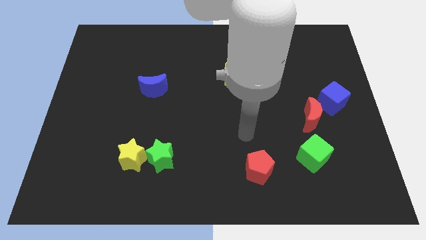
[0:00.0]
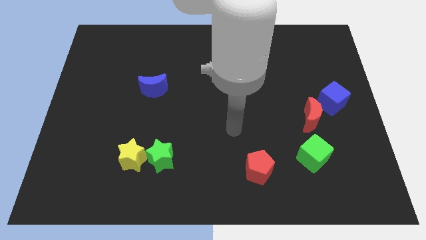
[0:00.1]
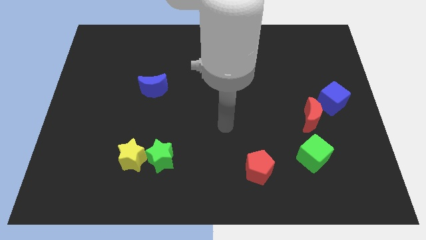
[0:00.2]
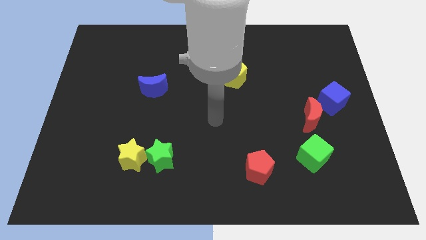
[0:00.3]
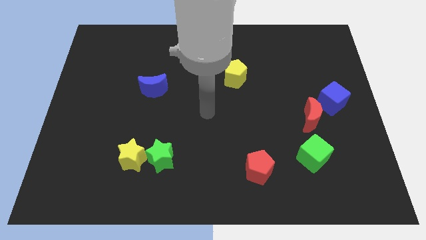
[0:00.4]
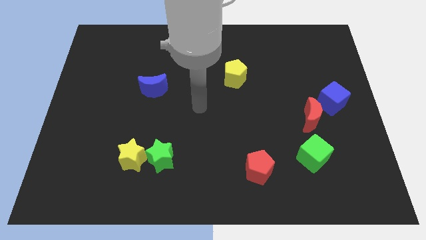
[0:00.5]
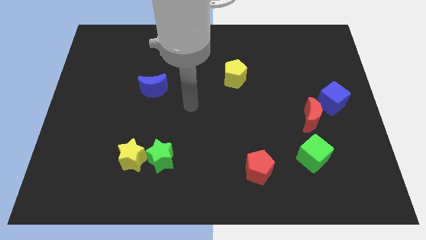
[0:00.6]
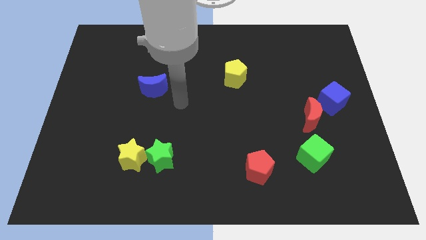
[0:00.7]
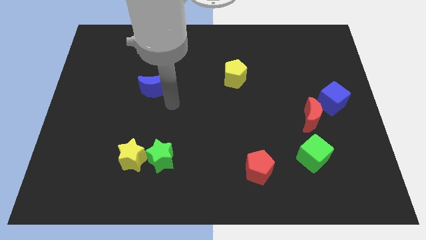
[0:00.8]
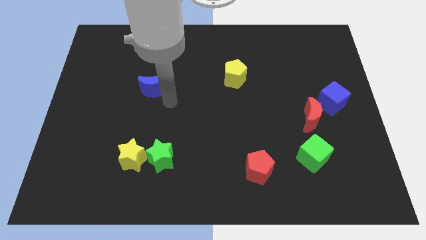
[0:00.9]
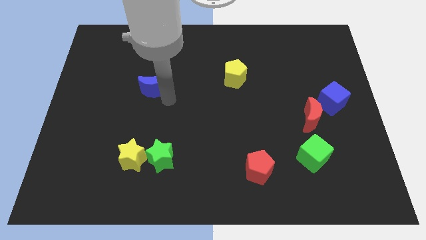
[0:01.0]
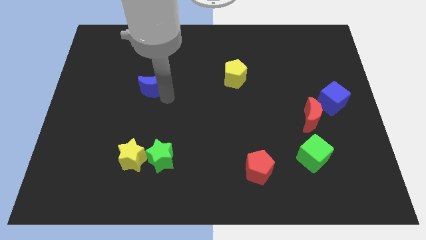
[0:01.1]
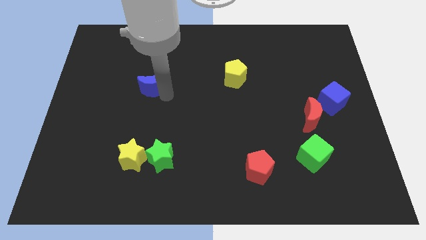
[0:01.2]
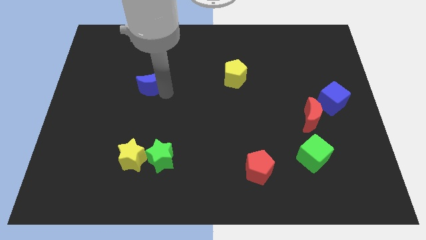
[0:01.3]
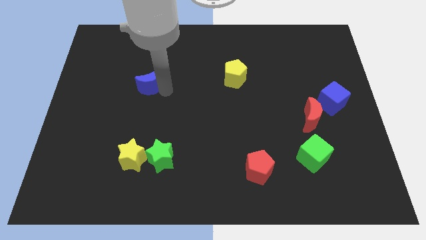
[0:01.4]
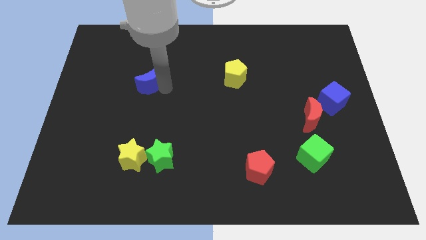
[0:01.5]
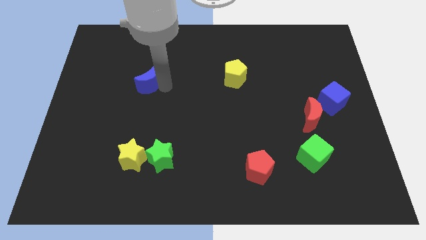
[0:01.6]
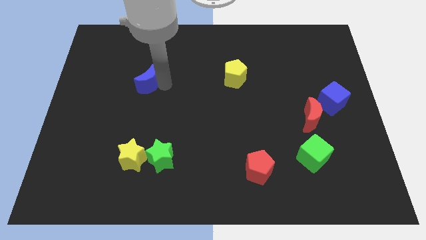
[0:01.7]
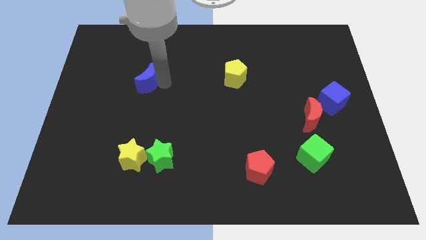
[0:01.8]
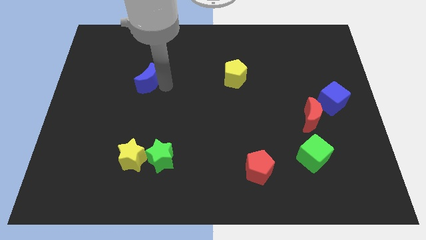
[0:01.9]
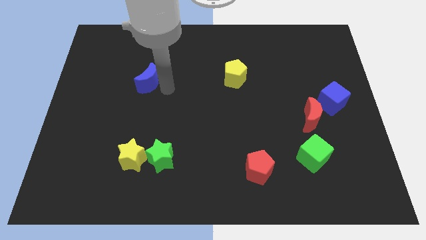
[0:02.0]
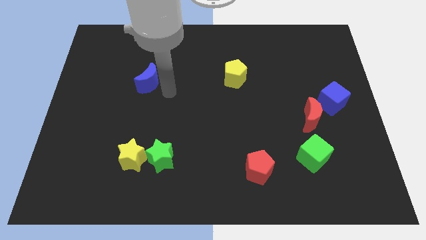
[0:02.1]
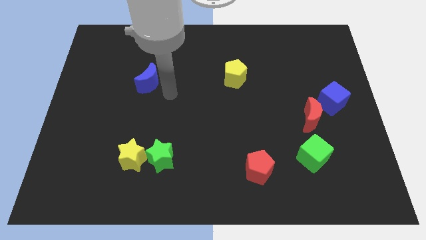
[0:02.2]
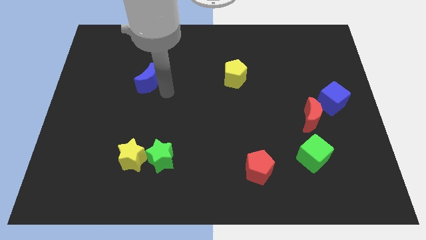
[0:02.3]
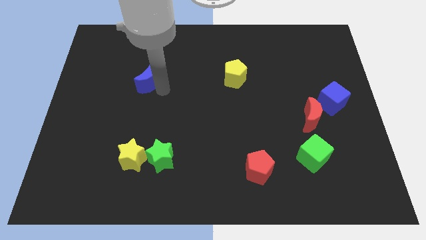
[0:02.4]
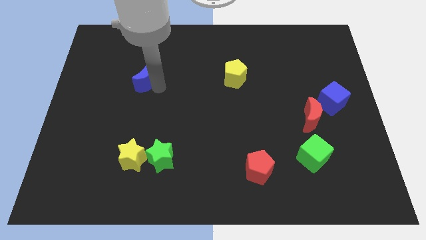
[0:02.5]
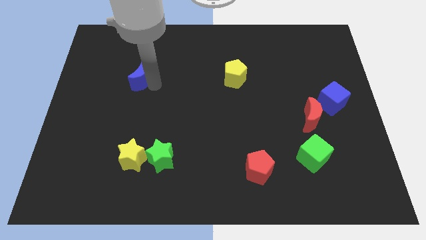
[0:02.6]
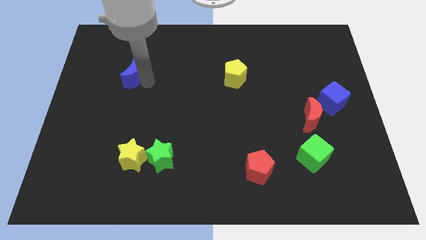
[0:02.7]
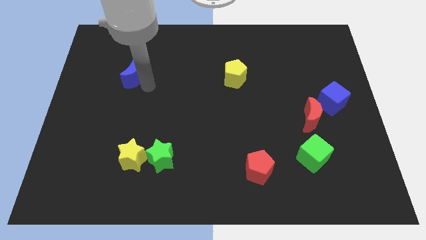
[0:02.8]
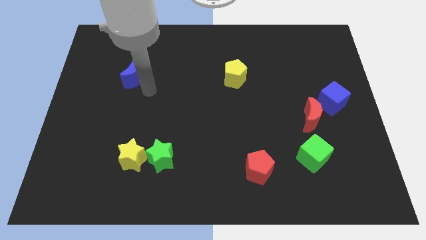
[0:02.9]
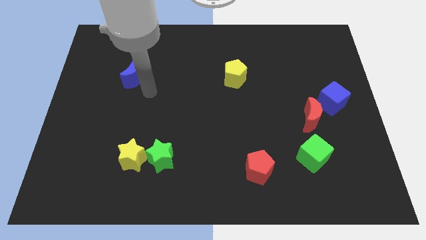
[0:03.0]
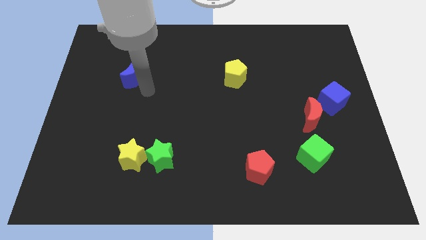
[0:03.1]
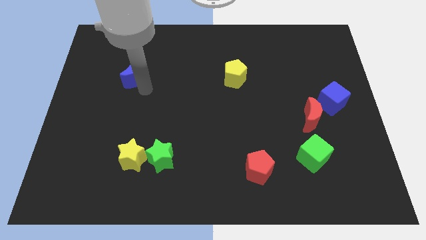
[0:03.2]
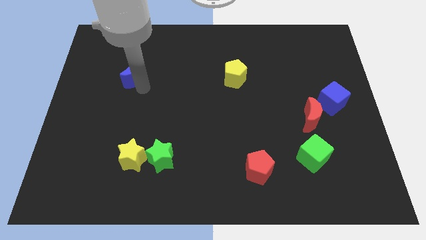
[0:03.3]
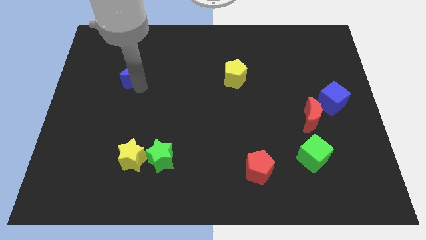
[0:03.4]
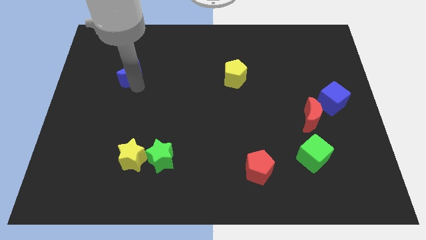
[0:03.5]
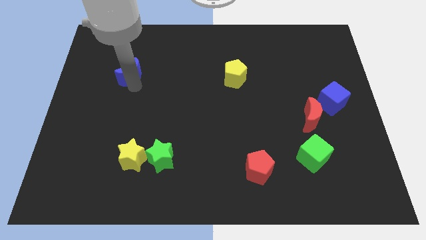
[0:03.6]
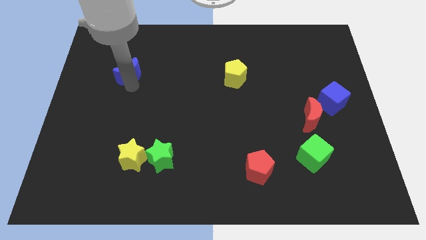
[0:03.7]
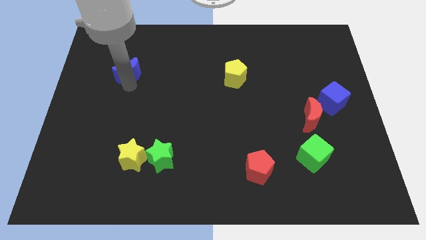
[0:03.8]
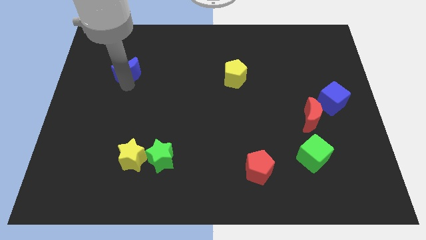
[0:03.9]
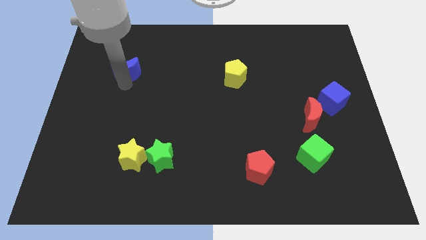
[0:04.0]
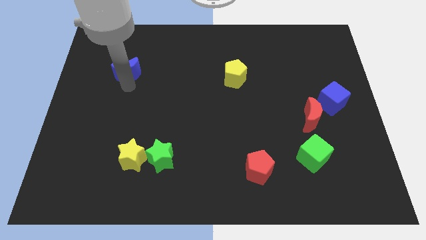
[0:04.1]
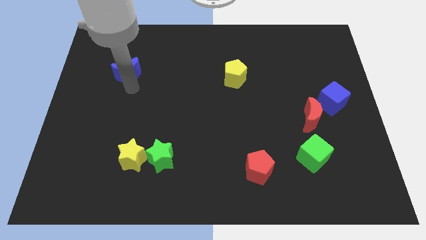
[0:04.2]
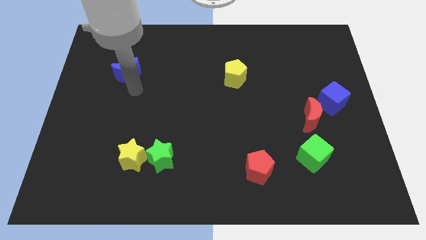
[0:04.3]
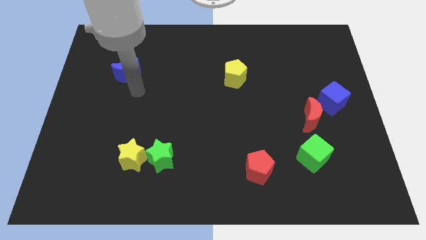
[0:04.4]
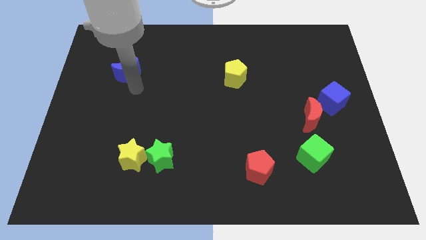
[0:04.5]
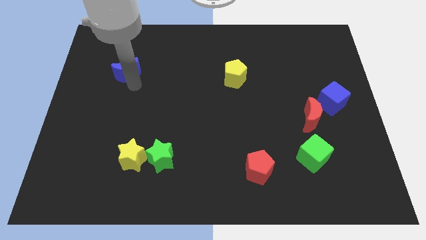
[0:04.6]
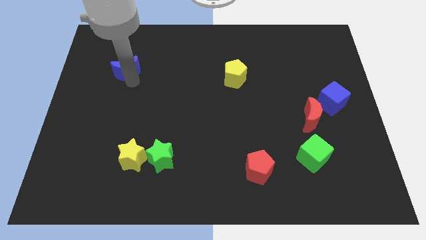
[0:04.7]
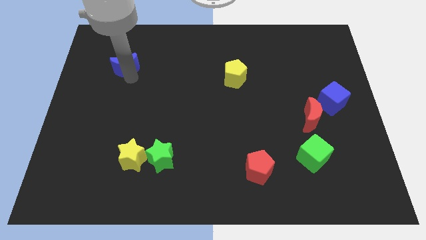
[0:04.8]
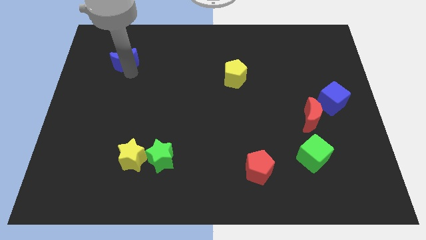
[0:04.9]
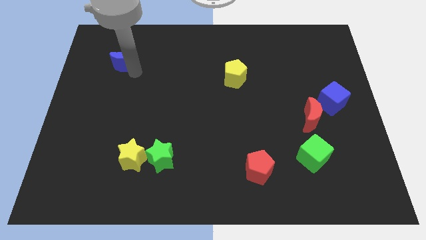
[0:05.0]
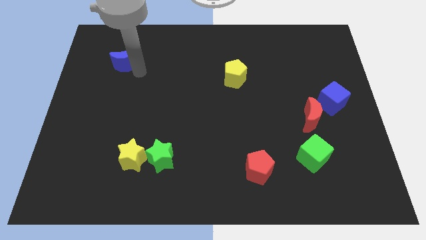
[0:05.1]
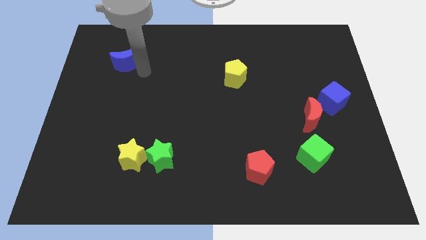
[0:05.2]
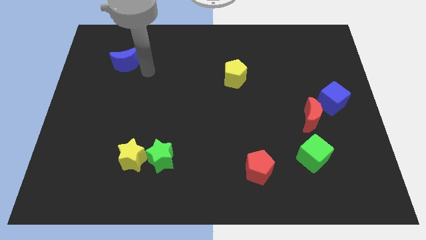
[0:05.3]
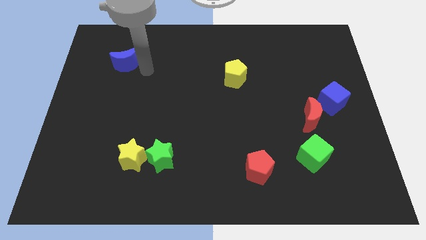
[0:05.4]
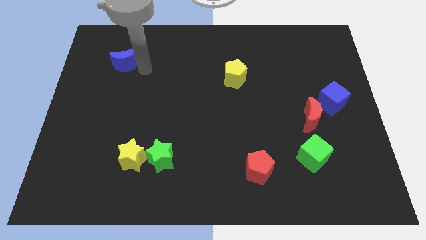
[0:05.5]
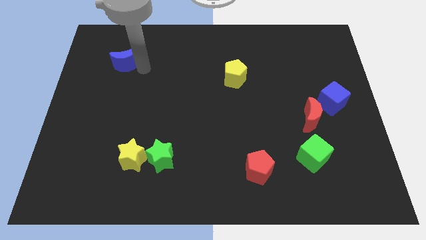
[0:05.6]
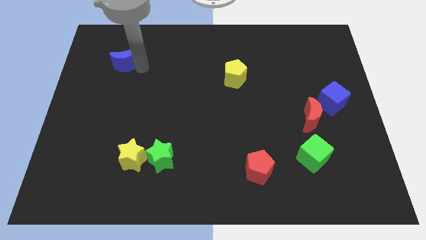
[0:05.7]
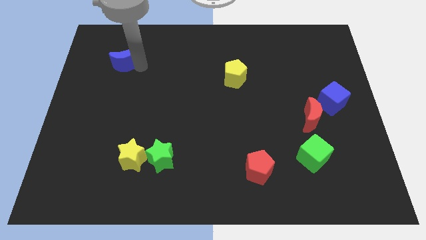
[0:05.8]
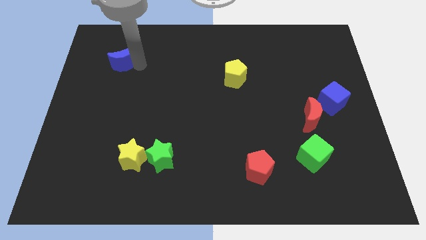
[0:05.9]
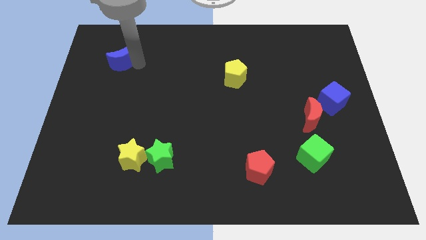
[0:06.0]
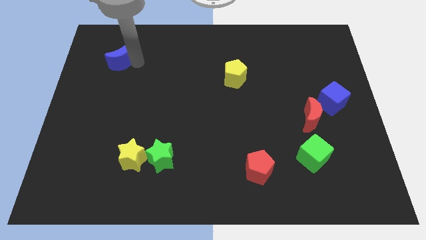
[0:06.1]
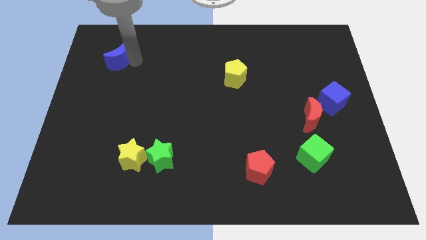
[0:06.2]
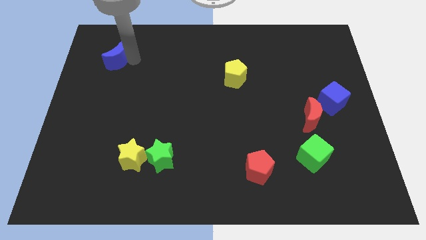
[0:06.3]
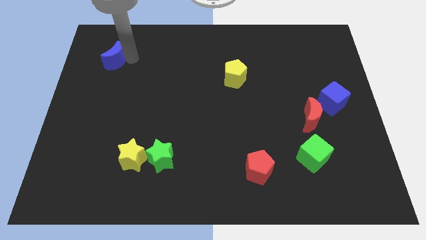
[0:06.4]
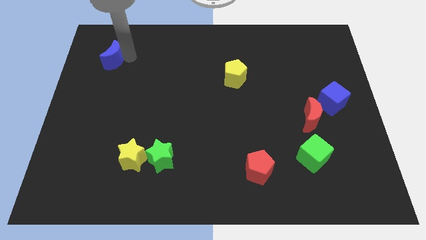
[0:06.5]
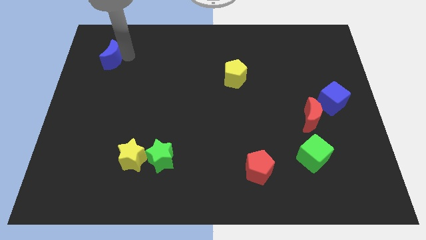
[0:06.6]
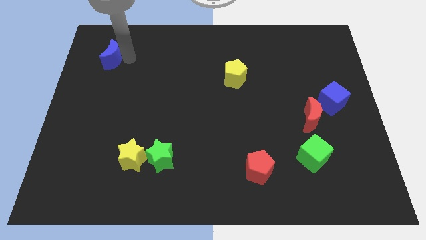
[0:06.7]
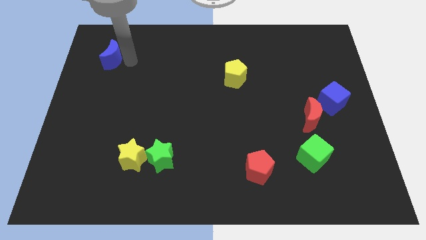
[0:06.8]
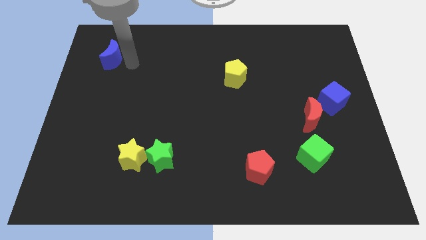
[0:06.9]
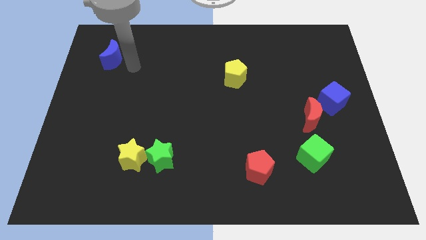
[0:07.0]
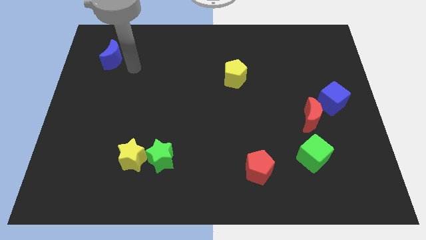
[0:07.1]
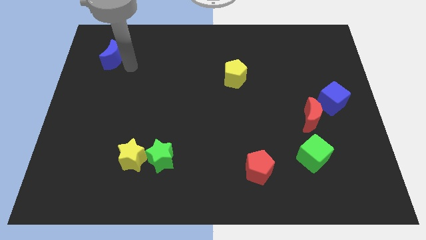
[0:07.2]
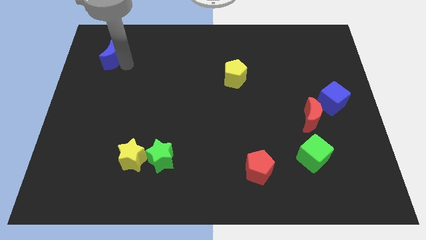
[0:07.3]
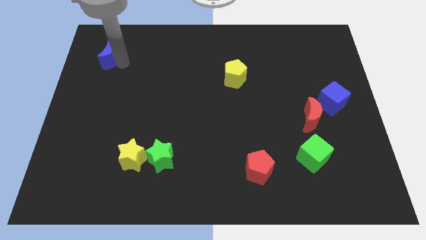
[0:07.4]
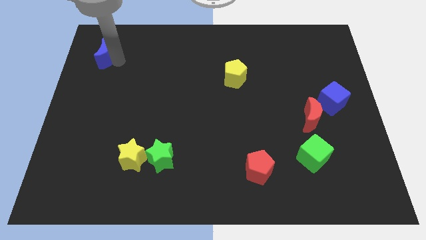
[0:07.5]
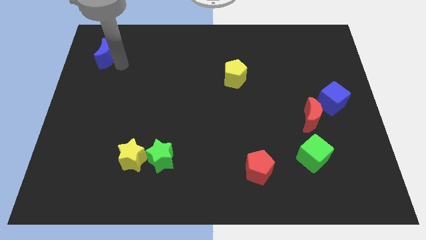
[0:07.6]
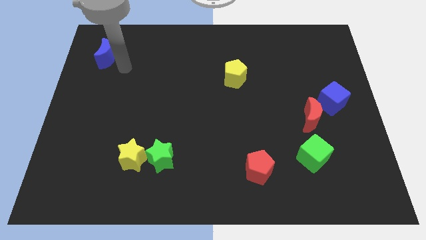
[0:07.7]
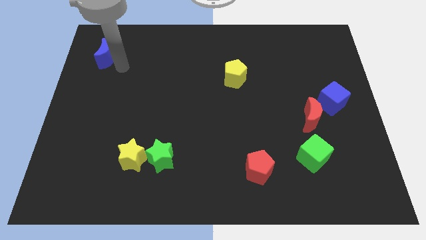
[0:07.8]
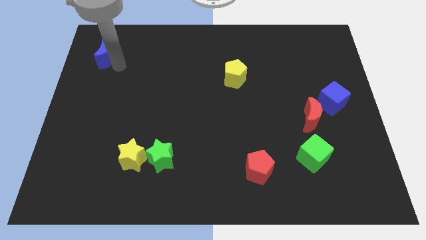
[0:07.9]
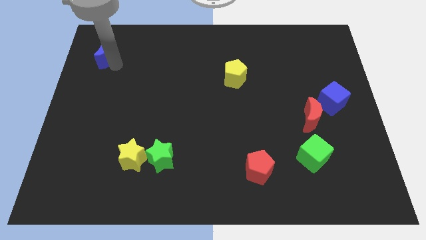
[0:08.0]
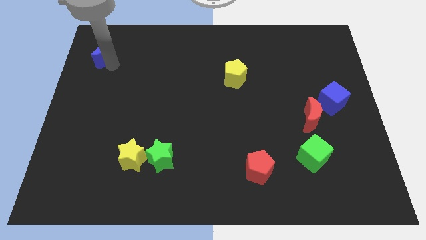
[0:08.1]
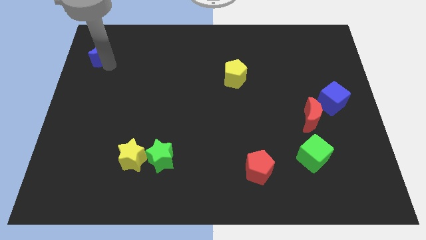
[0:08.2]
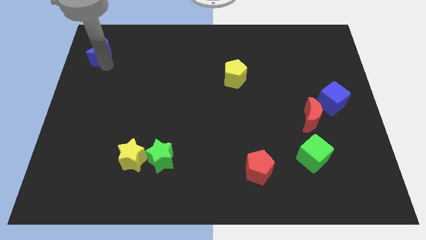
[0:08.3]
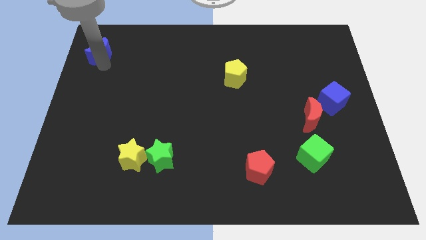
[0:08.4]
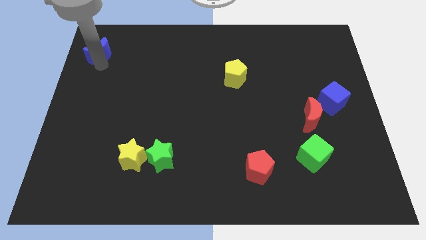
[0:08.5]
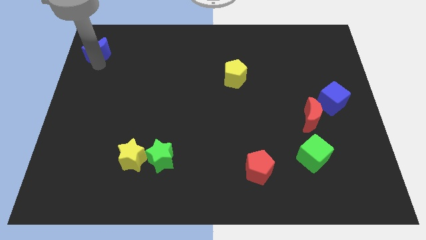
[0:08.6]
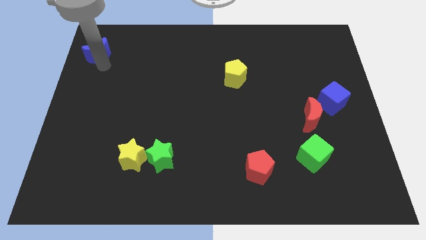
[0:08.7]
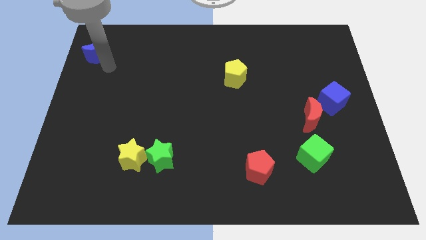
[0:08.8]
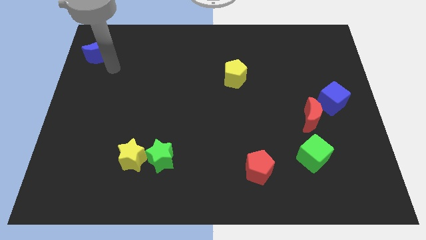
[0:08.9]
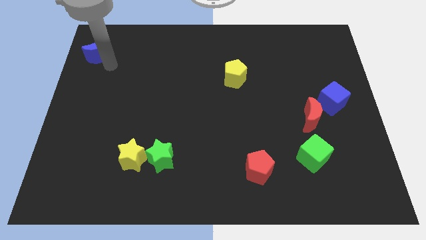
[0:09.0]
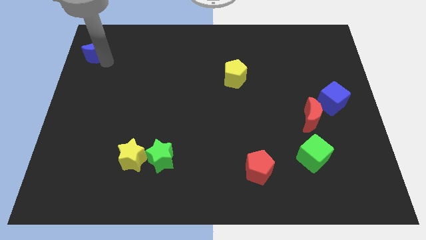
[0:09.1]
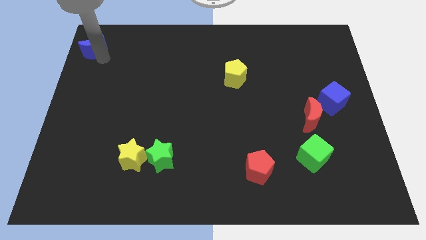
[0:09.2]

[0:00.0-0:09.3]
move the blue moon to the upper left corner
